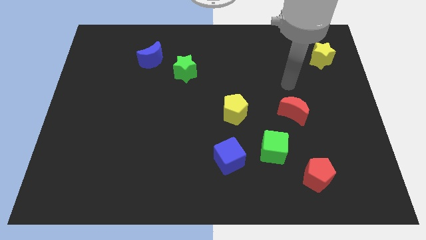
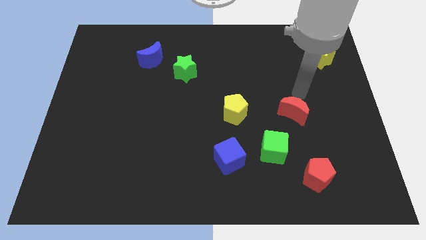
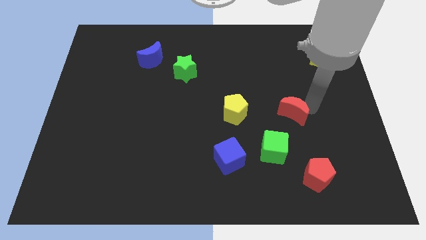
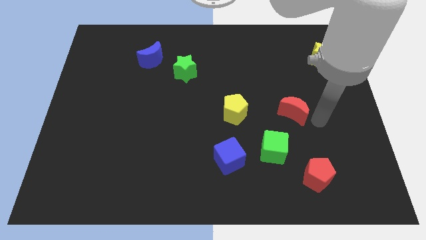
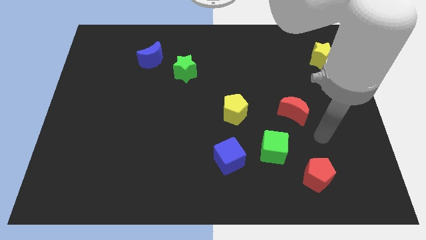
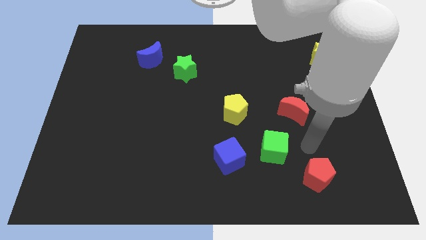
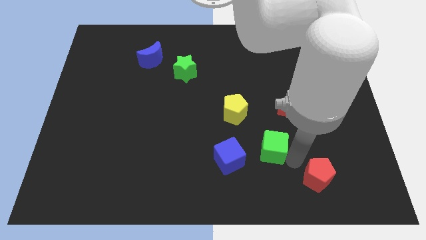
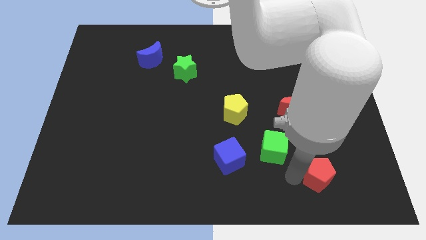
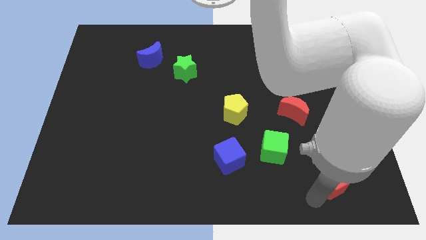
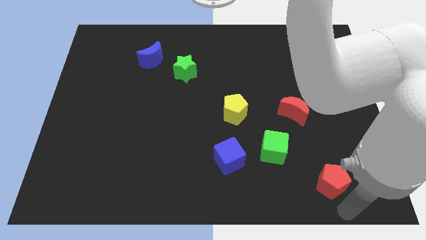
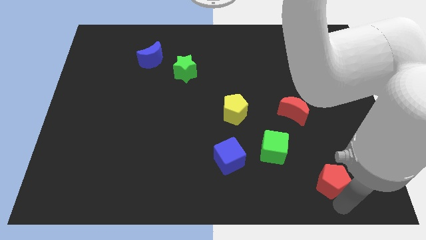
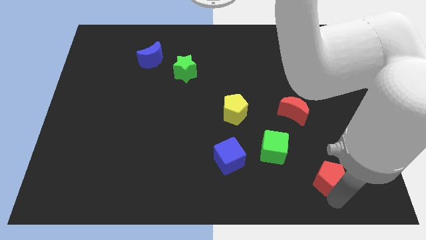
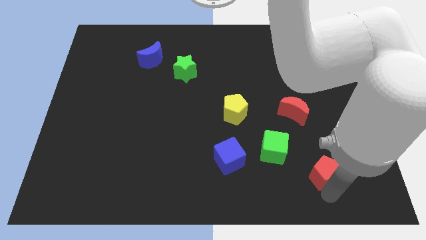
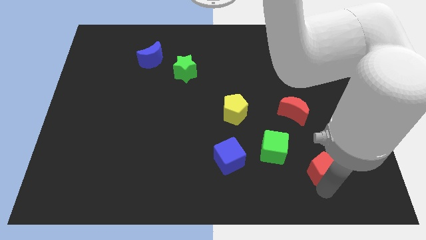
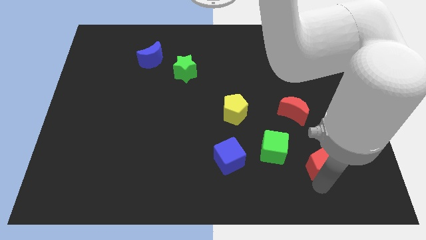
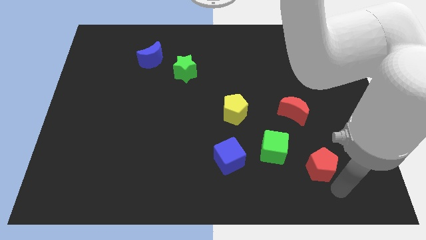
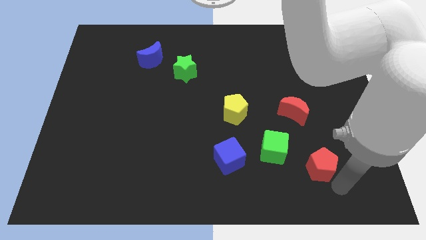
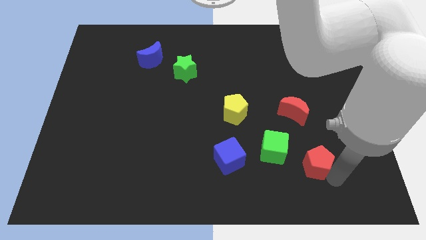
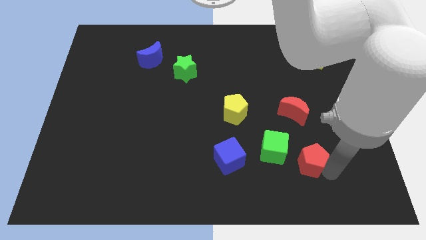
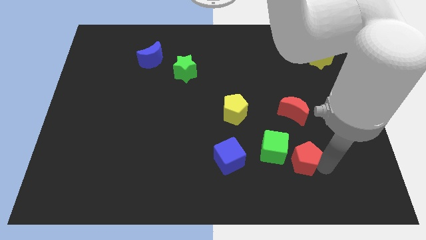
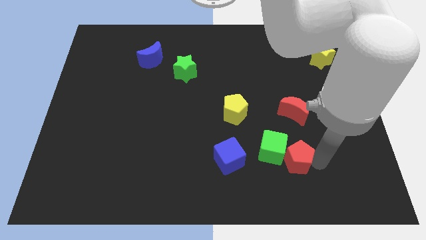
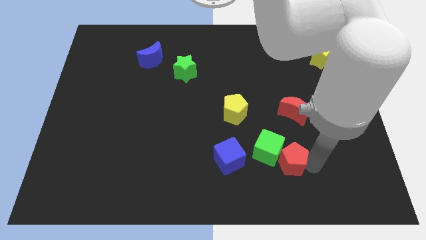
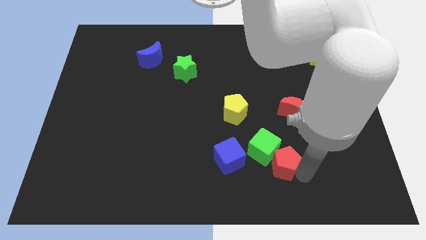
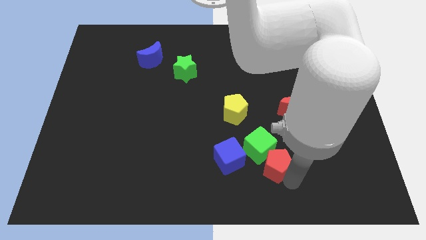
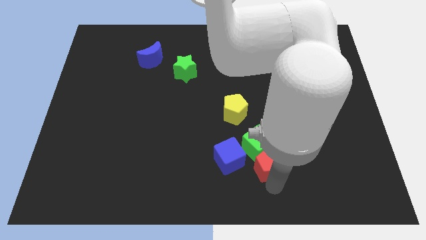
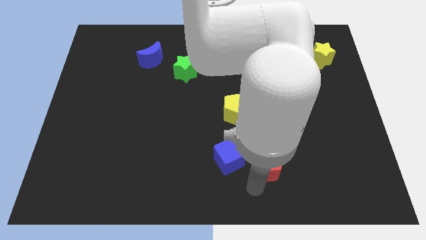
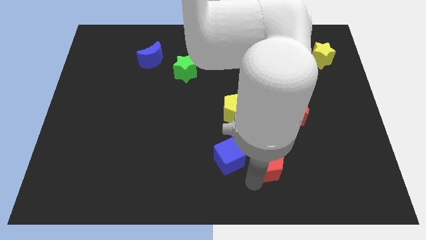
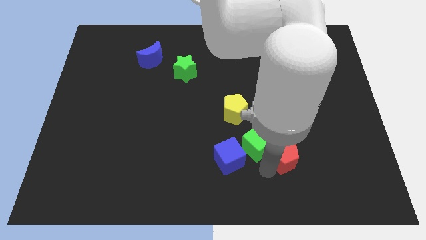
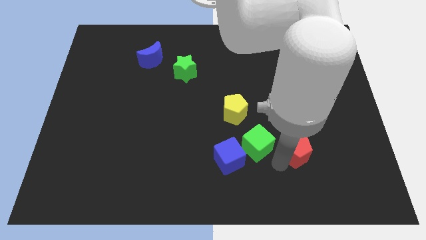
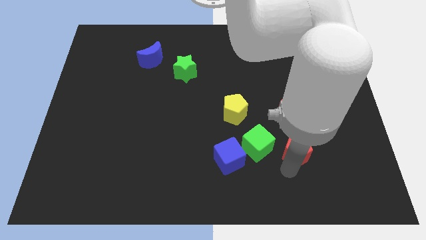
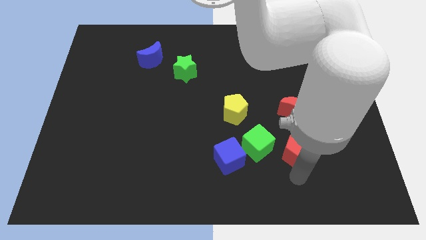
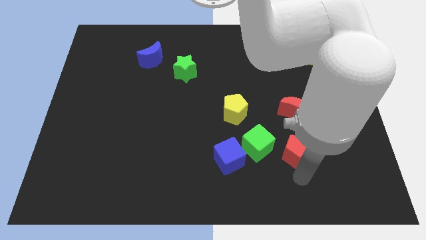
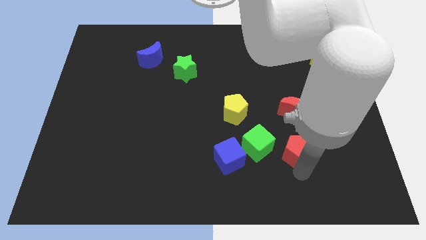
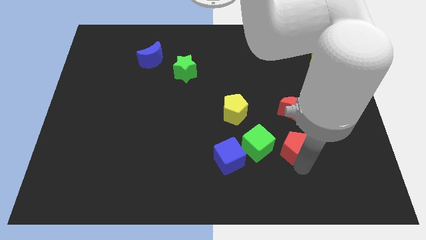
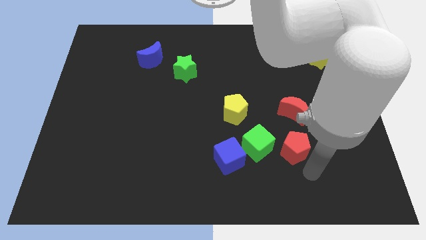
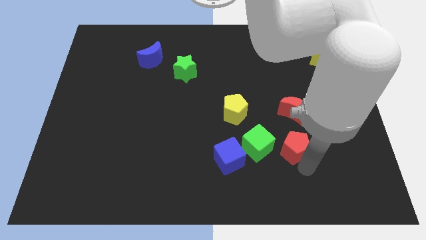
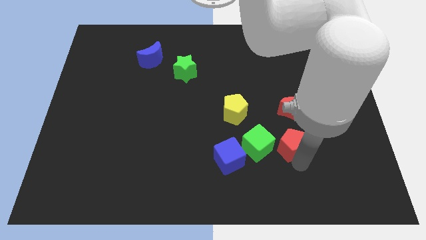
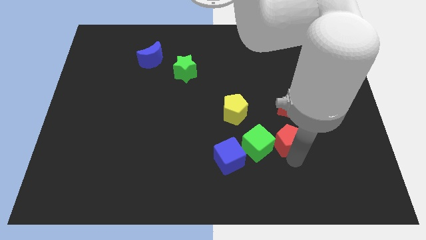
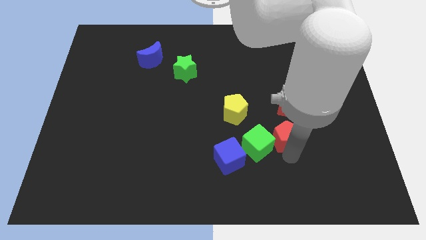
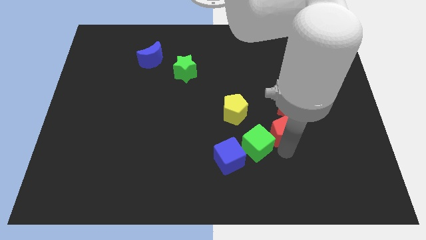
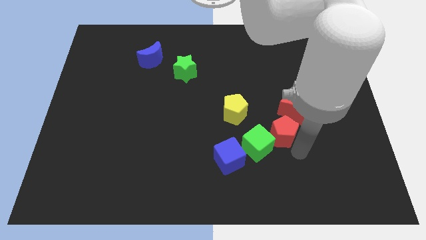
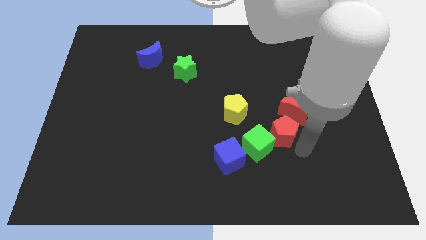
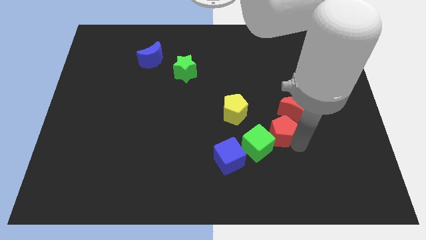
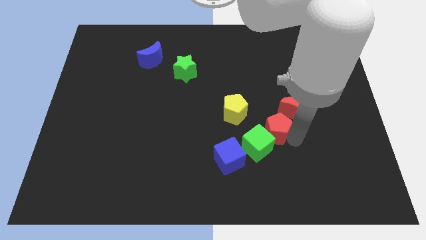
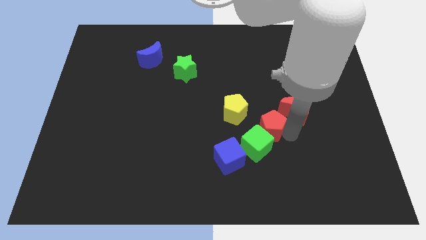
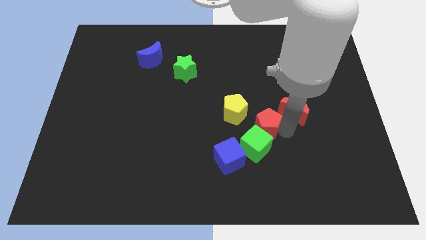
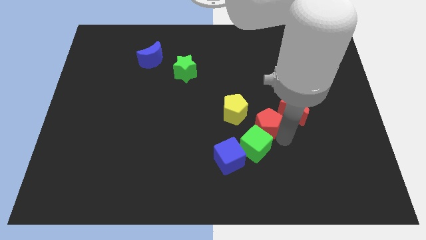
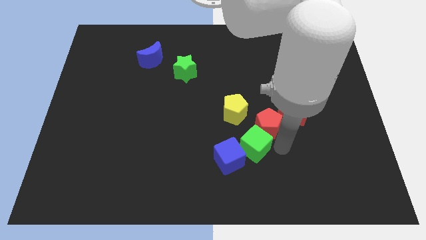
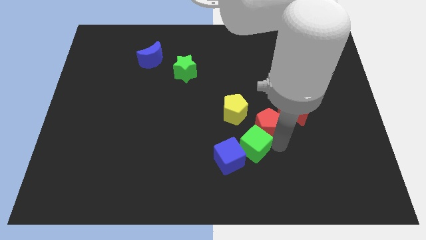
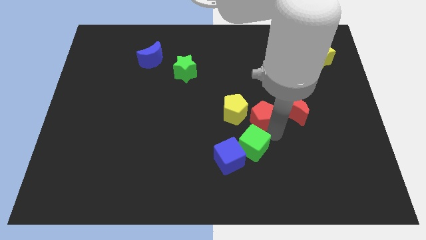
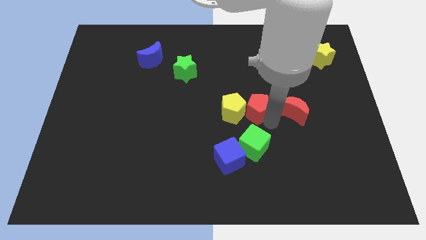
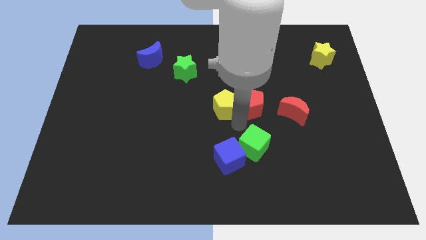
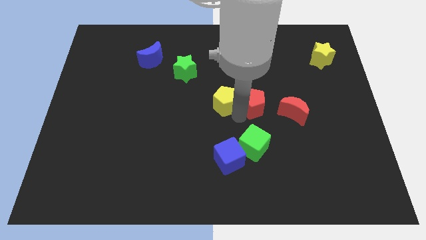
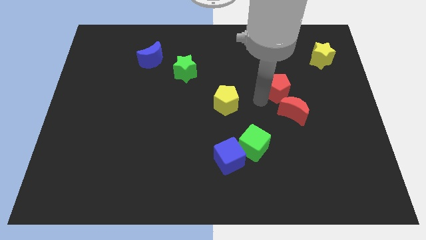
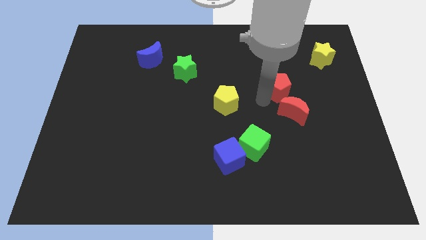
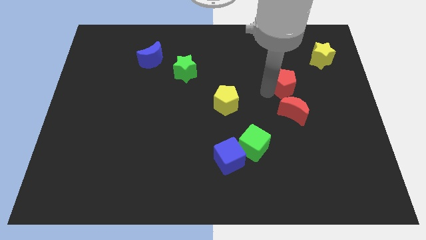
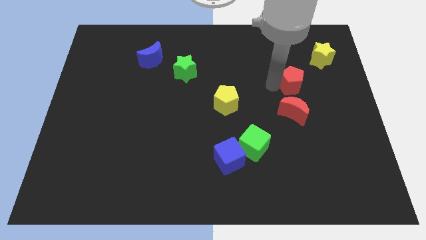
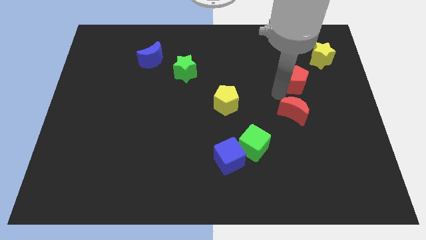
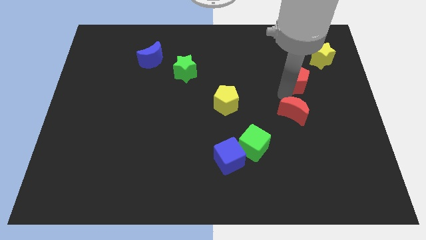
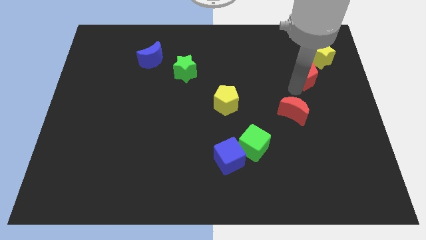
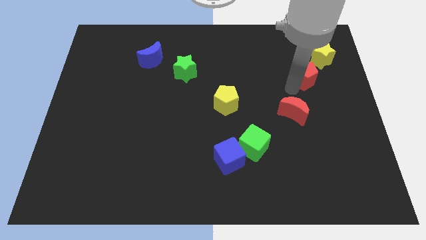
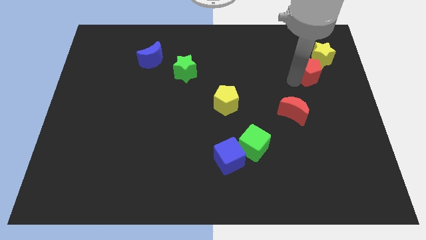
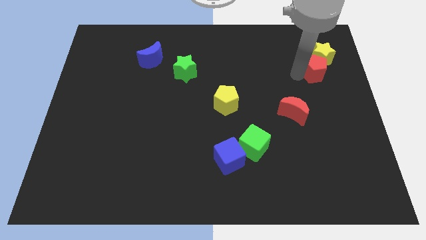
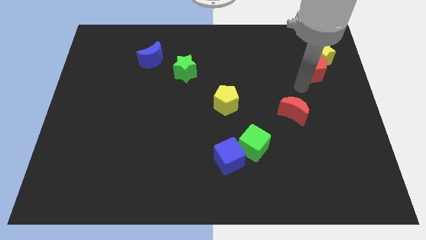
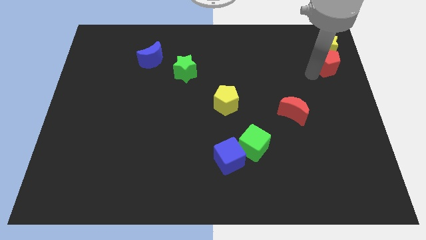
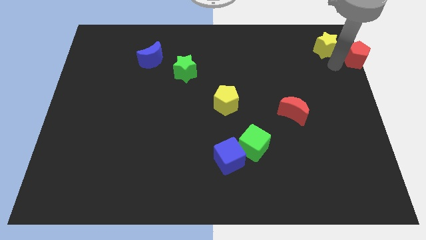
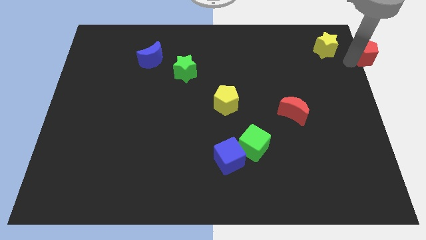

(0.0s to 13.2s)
put the red pentagon to the top right corner
